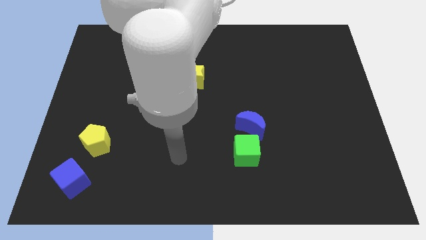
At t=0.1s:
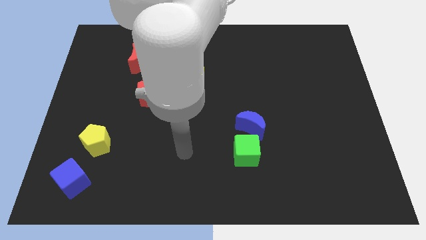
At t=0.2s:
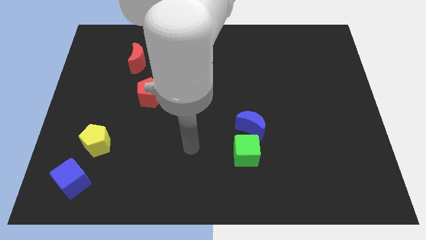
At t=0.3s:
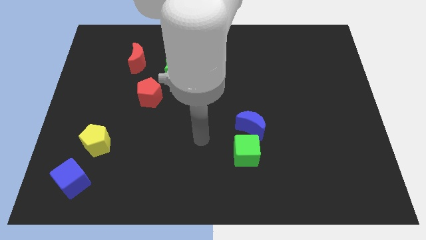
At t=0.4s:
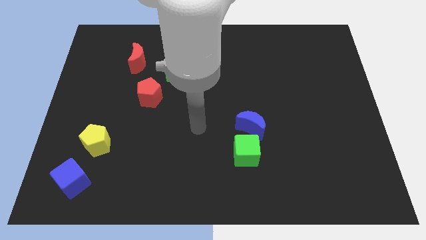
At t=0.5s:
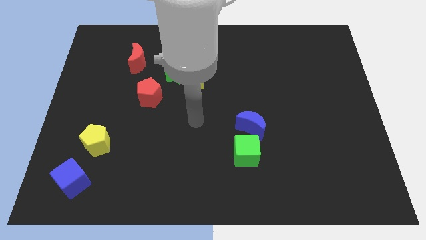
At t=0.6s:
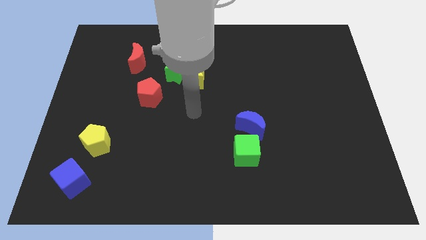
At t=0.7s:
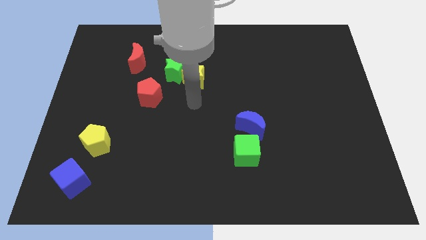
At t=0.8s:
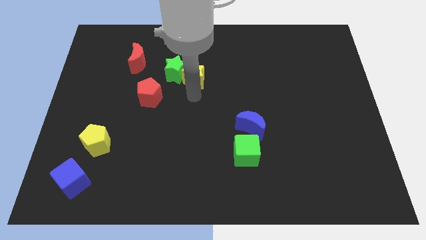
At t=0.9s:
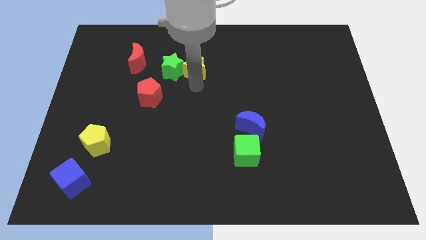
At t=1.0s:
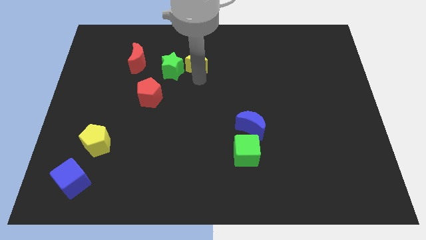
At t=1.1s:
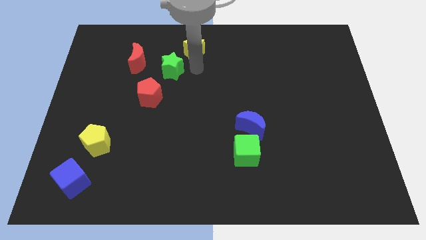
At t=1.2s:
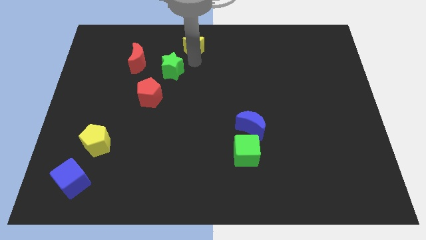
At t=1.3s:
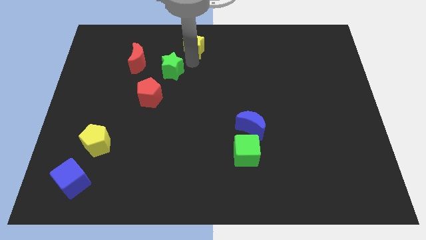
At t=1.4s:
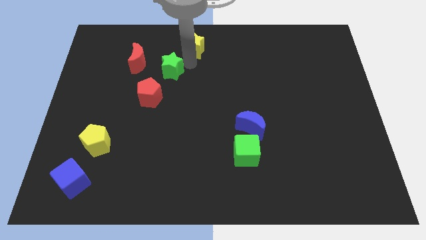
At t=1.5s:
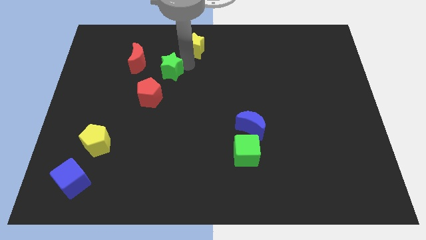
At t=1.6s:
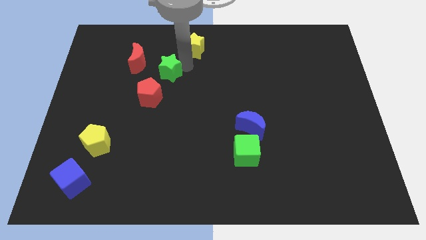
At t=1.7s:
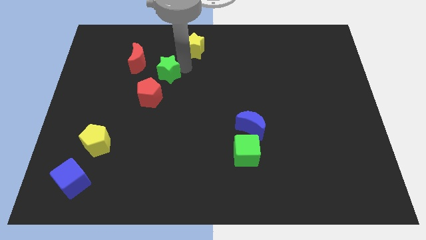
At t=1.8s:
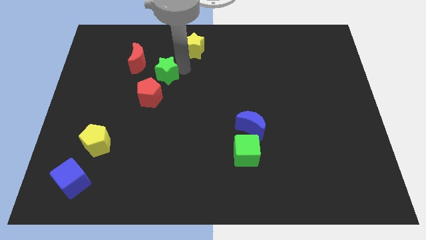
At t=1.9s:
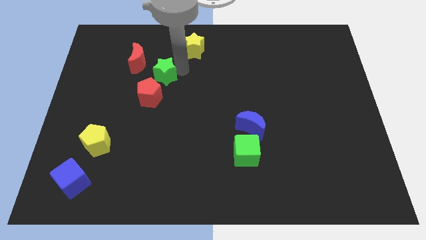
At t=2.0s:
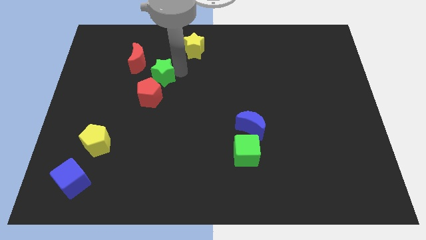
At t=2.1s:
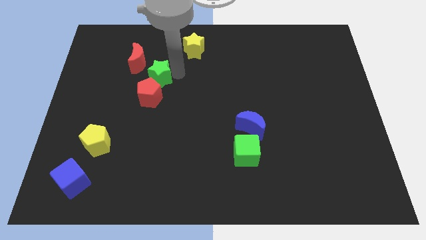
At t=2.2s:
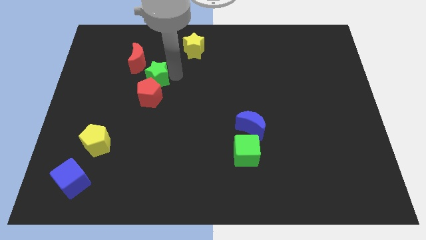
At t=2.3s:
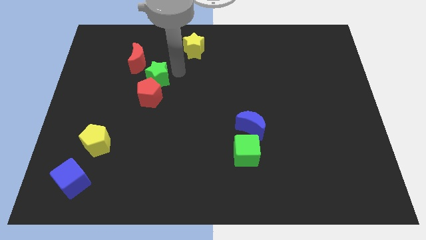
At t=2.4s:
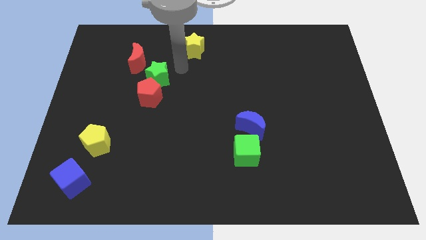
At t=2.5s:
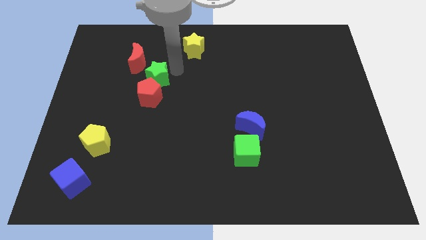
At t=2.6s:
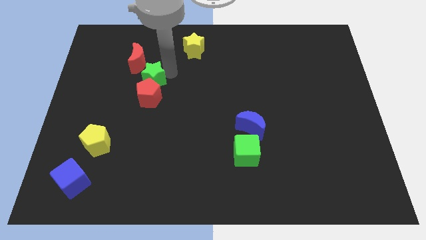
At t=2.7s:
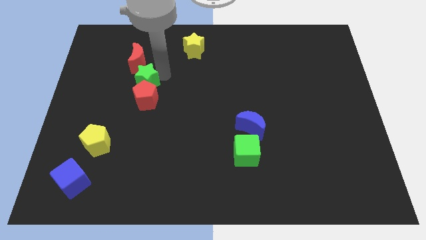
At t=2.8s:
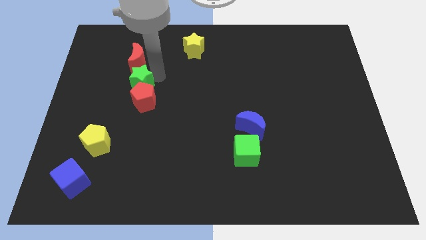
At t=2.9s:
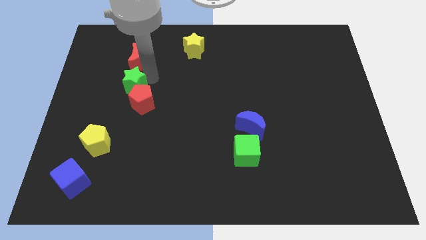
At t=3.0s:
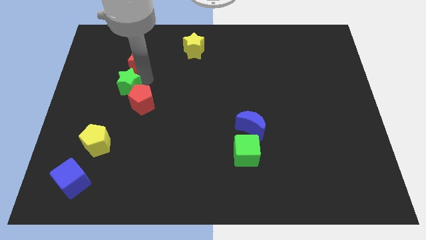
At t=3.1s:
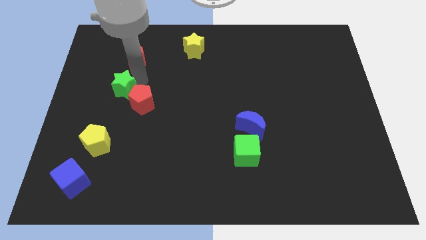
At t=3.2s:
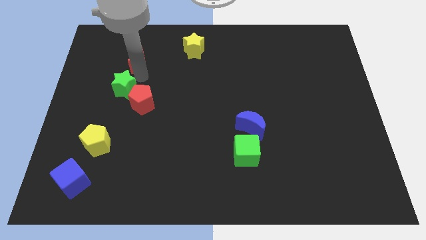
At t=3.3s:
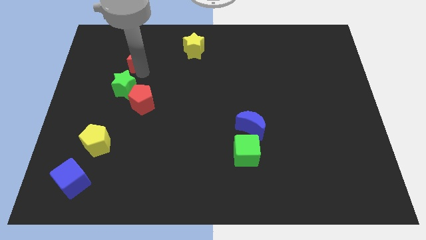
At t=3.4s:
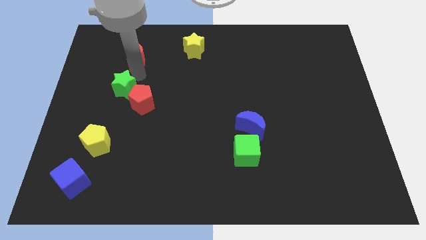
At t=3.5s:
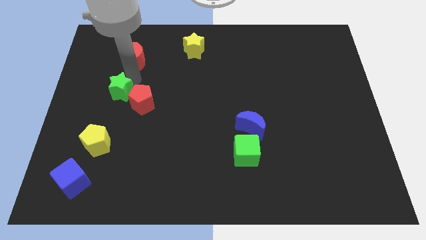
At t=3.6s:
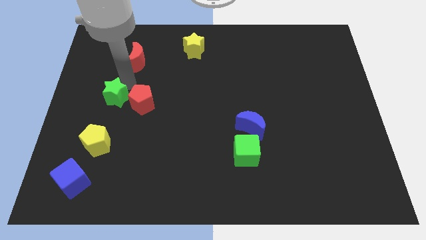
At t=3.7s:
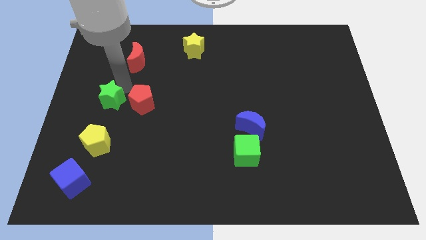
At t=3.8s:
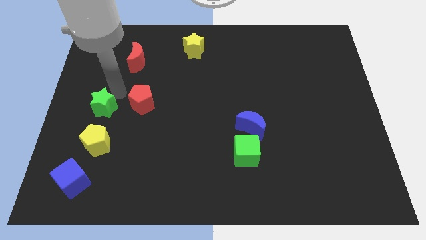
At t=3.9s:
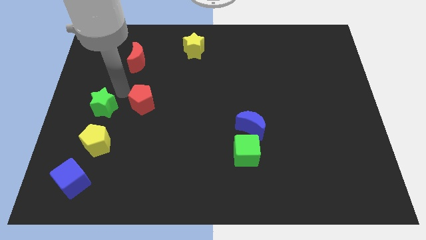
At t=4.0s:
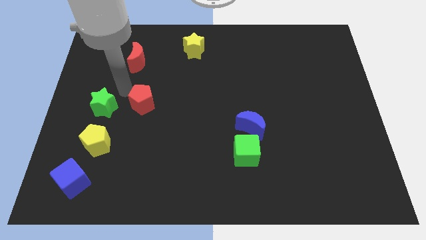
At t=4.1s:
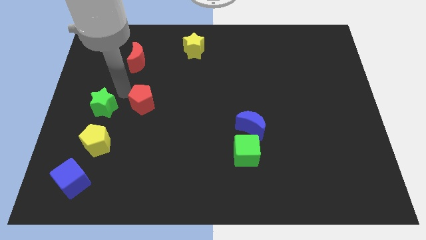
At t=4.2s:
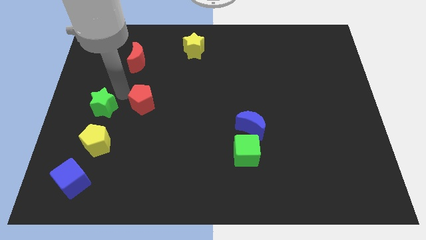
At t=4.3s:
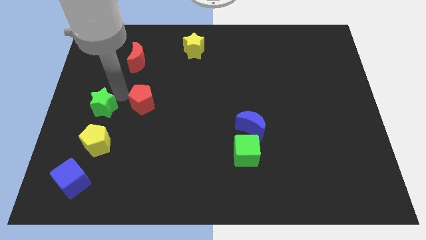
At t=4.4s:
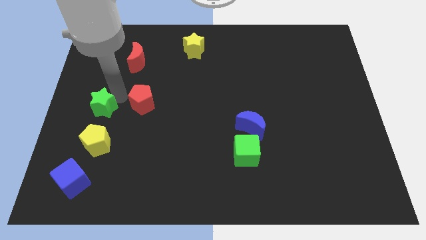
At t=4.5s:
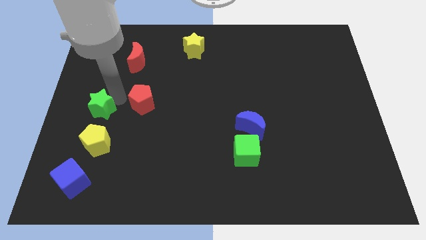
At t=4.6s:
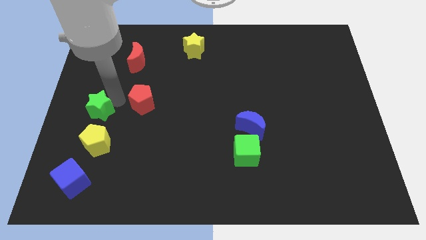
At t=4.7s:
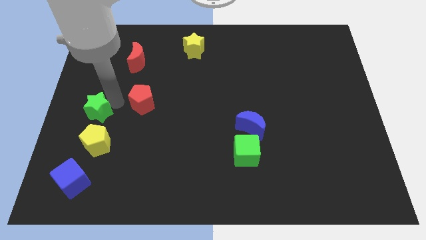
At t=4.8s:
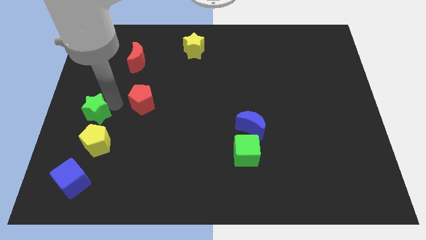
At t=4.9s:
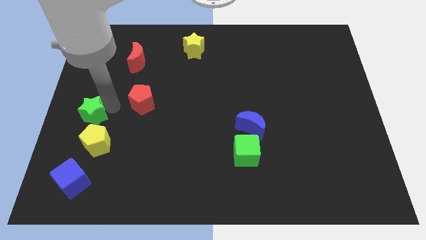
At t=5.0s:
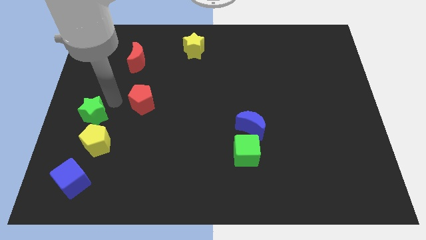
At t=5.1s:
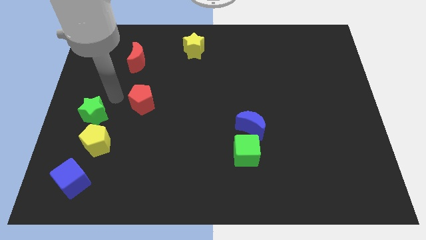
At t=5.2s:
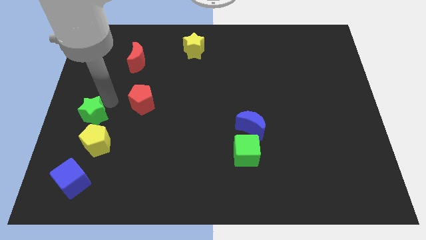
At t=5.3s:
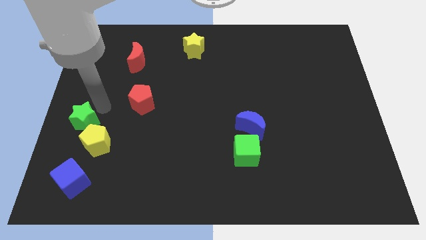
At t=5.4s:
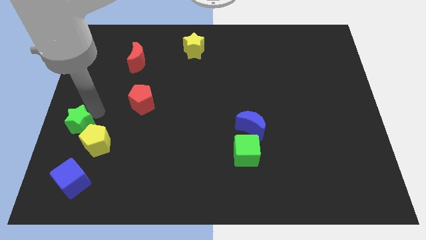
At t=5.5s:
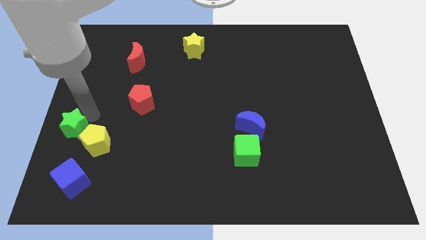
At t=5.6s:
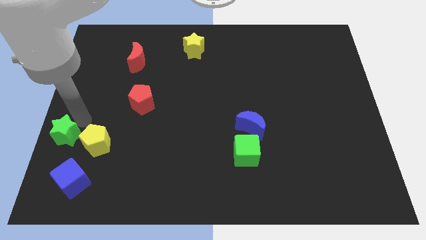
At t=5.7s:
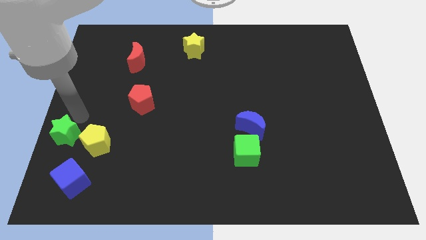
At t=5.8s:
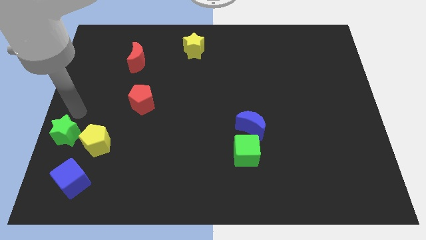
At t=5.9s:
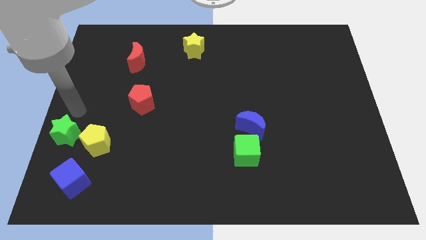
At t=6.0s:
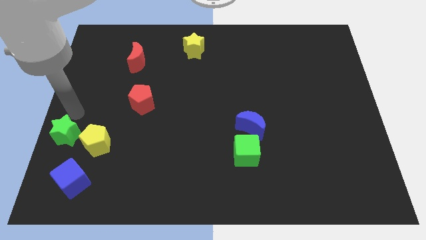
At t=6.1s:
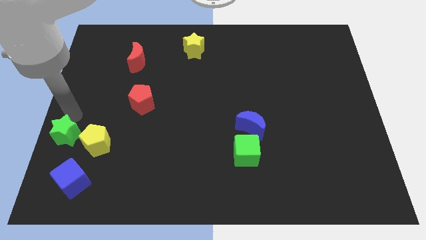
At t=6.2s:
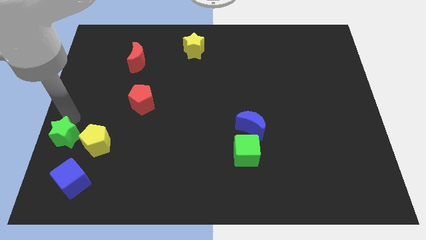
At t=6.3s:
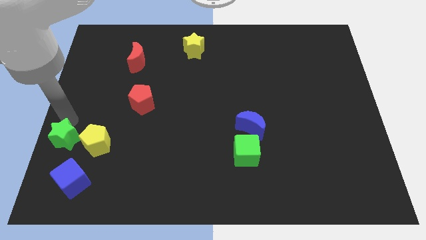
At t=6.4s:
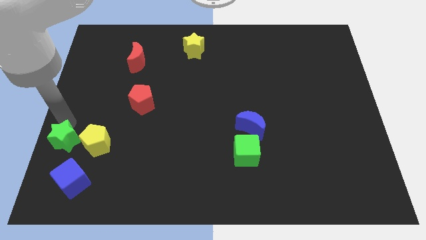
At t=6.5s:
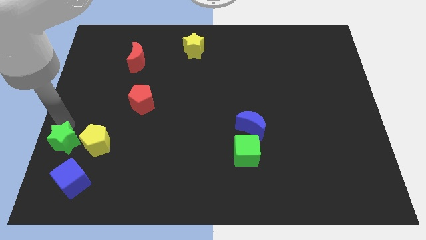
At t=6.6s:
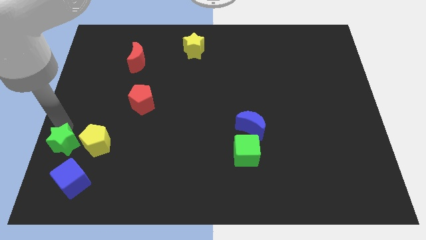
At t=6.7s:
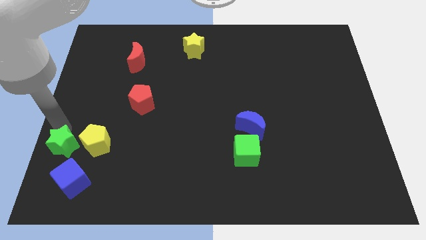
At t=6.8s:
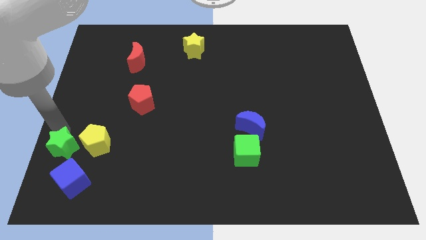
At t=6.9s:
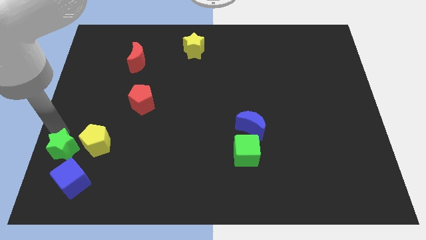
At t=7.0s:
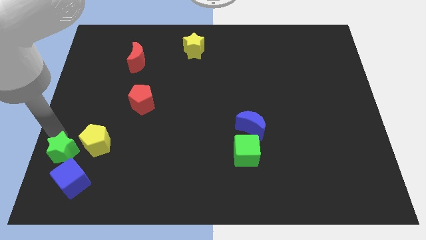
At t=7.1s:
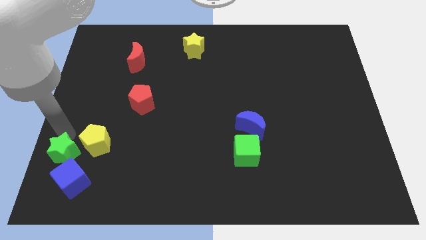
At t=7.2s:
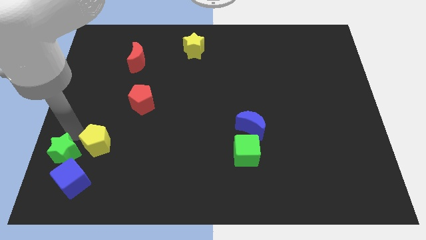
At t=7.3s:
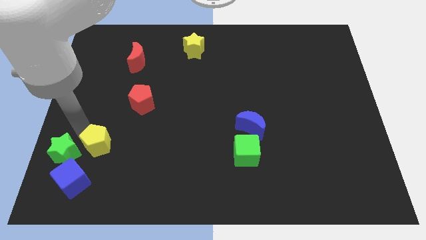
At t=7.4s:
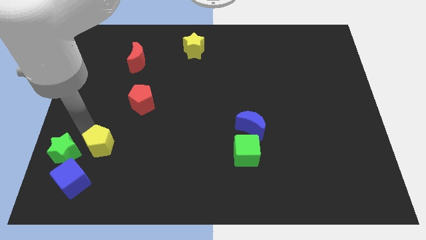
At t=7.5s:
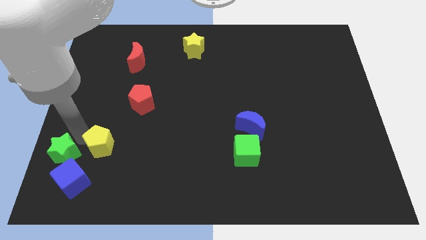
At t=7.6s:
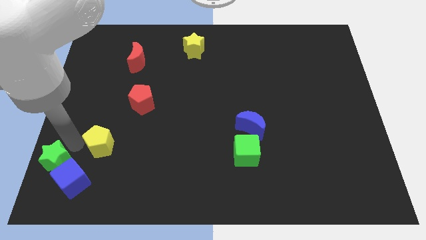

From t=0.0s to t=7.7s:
push the green star to the bottom left corner
